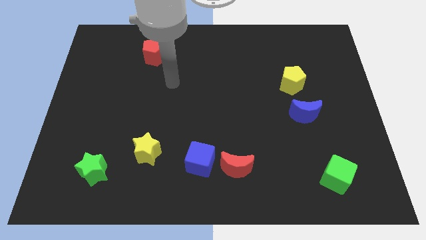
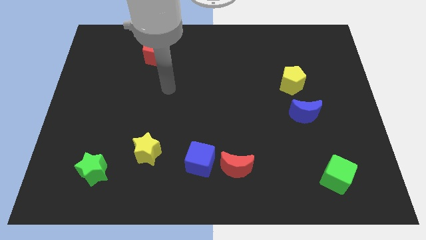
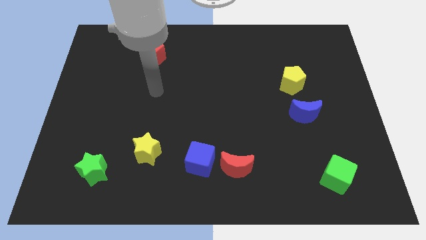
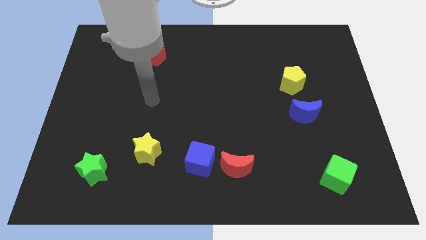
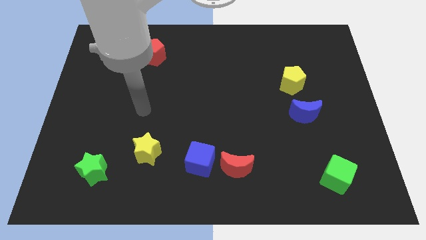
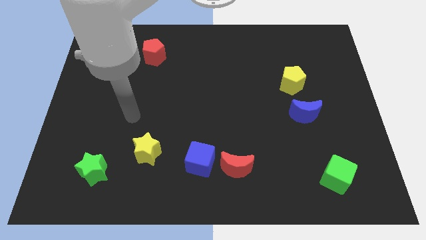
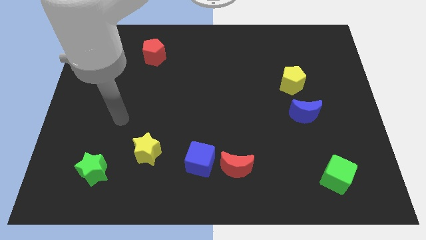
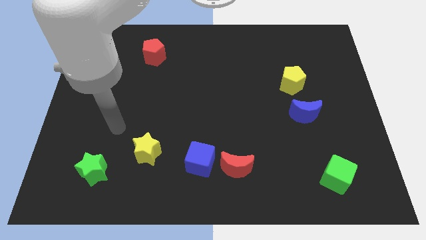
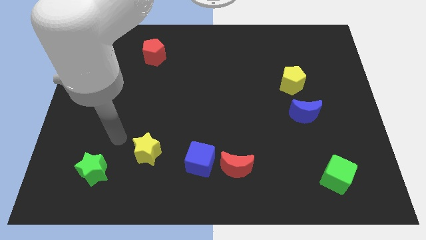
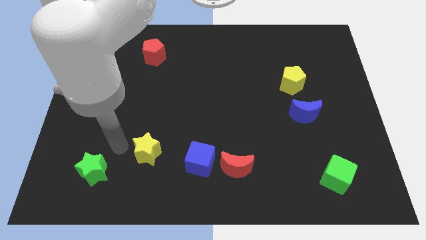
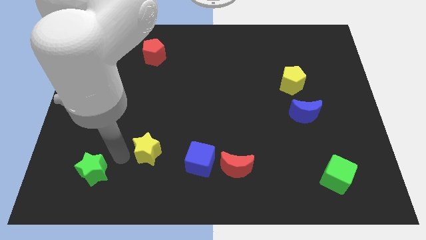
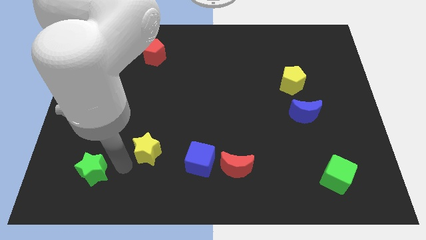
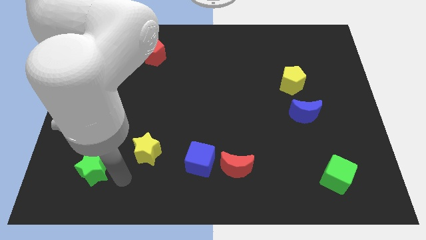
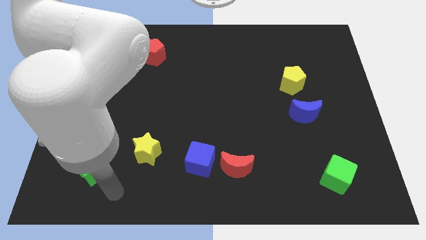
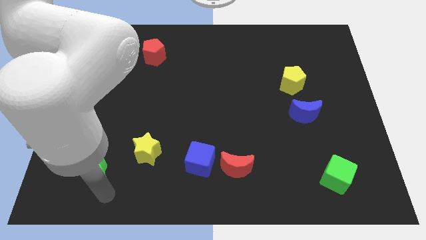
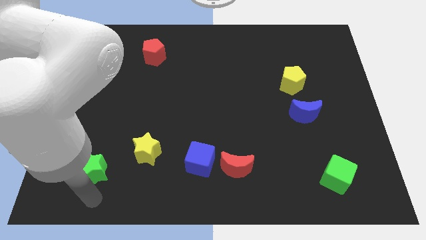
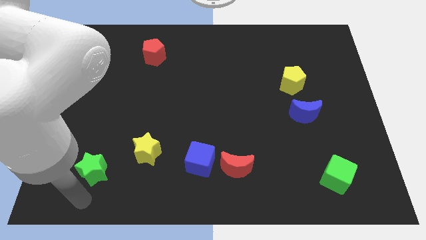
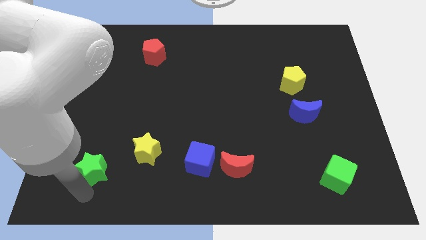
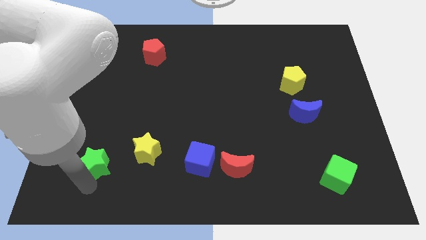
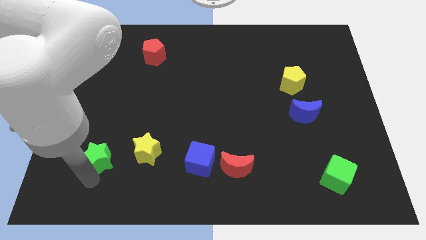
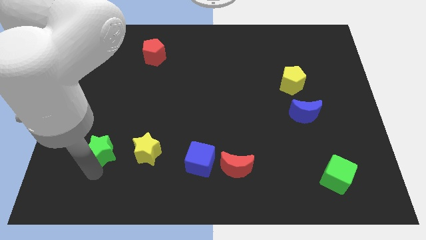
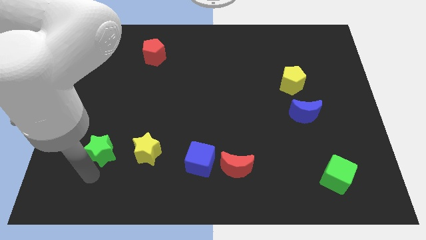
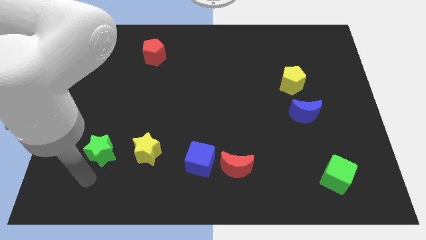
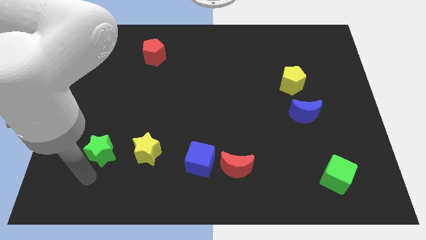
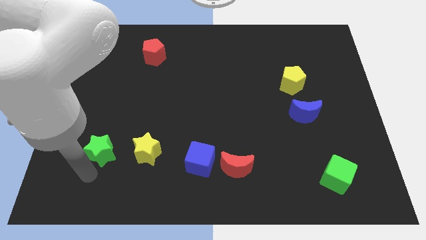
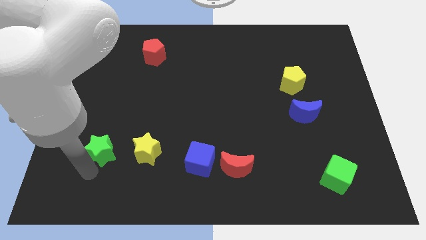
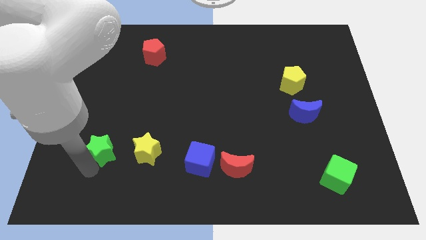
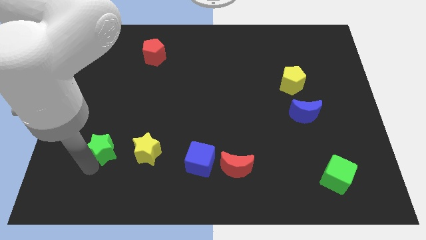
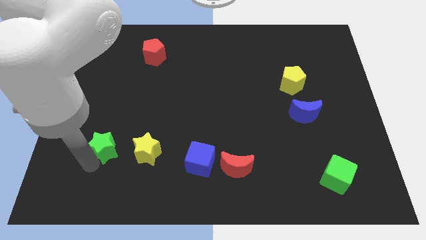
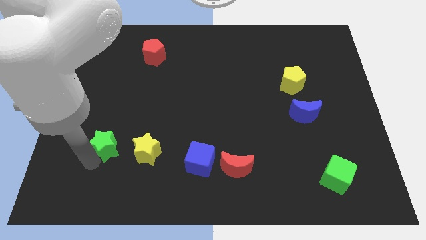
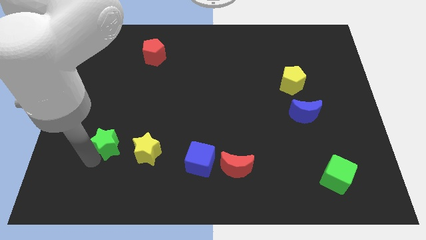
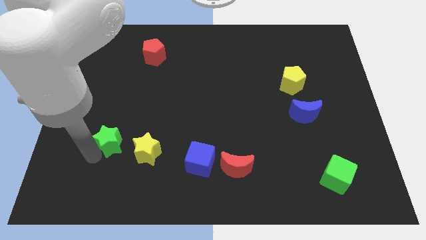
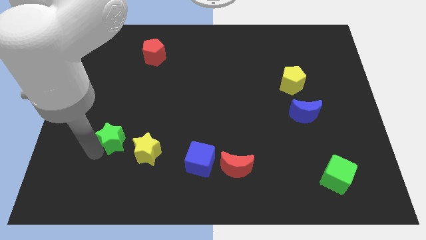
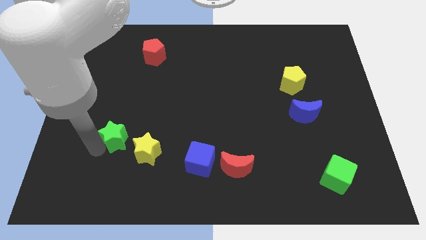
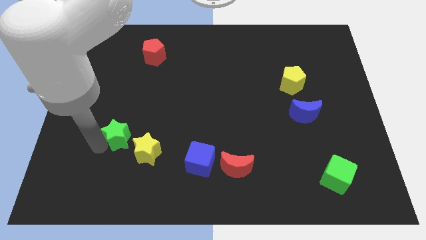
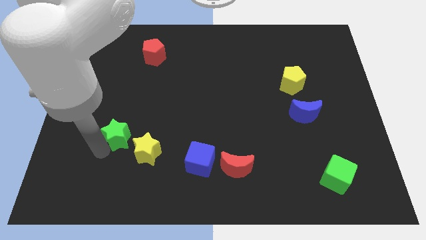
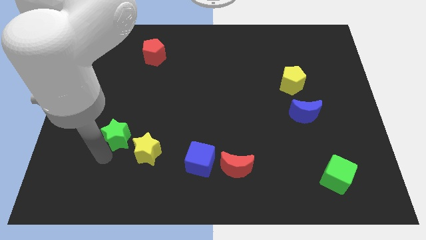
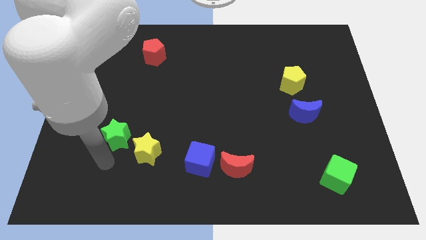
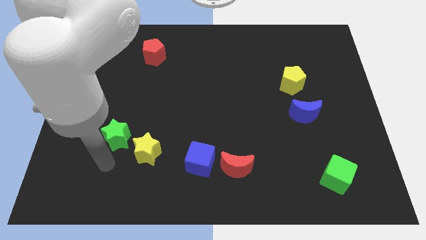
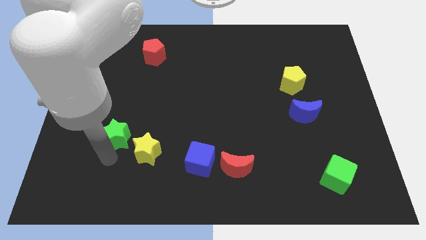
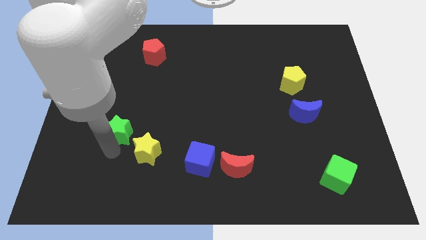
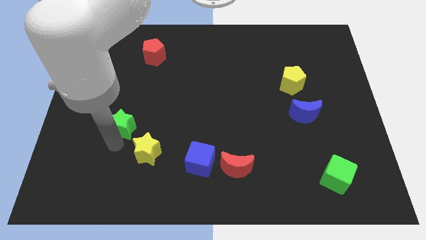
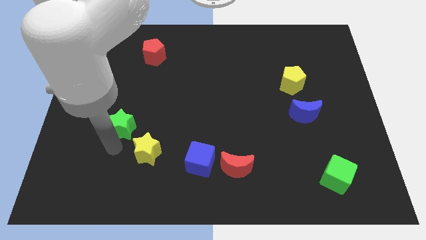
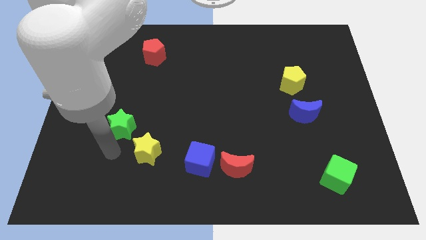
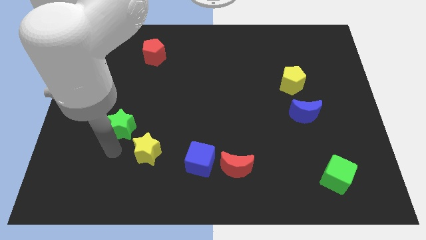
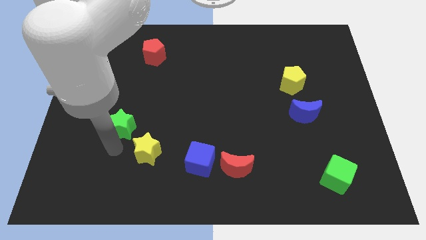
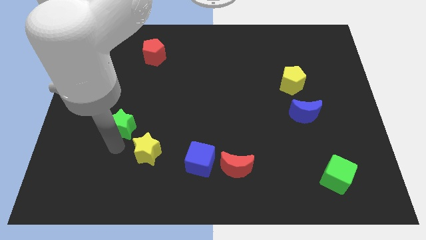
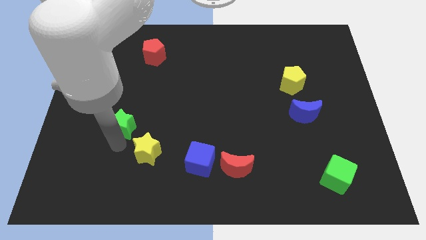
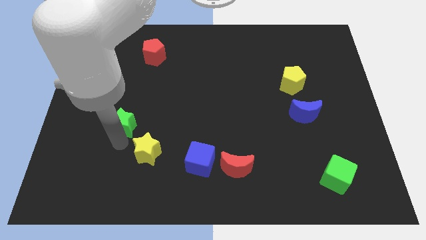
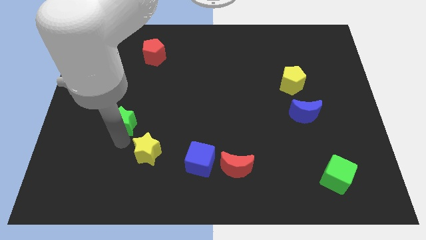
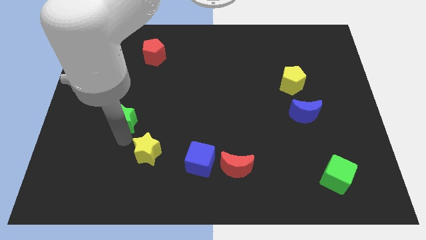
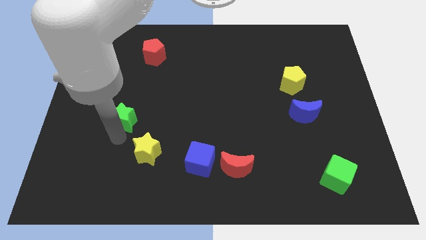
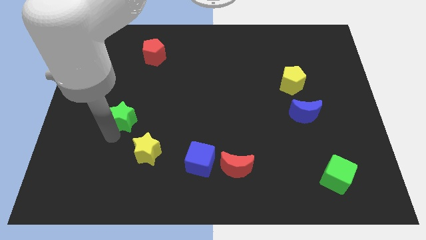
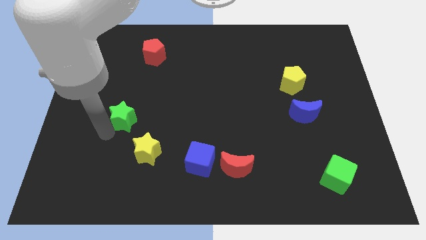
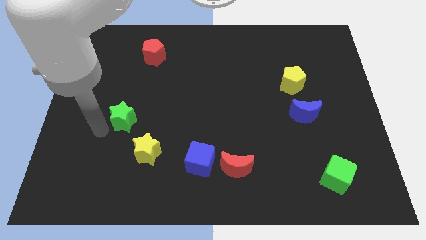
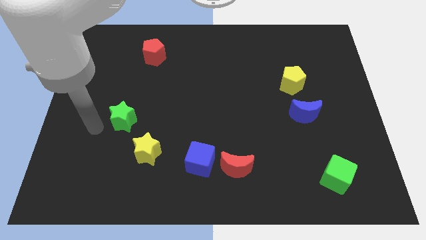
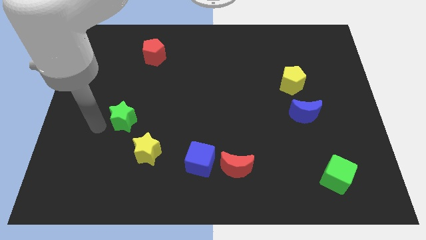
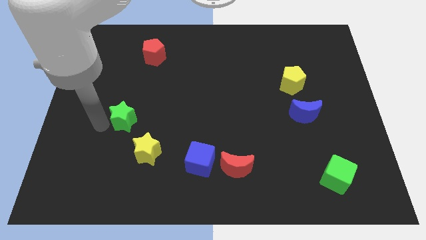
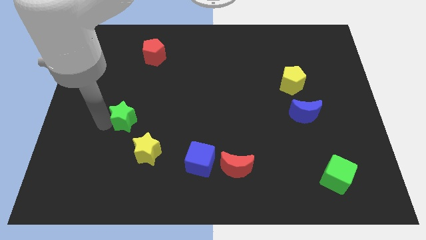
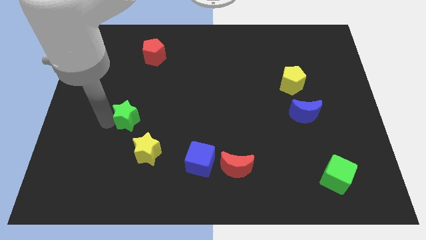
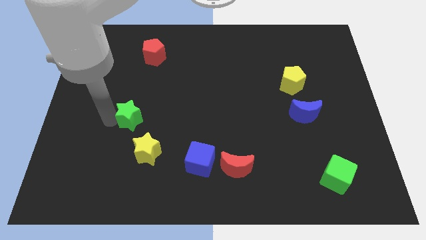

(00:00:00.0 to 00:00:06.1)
push the green star to the top side of the yellow star

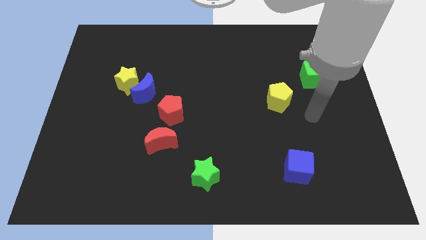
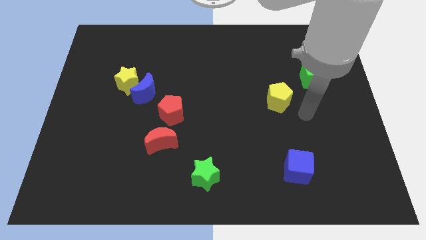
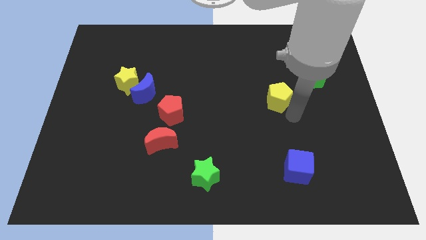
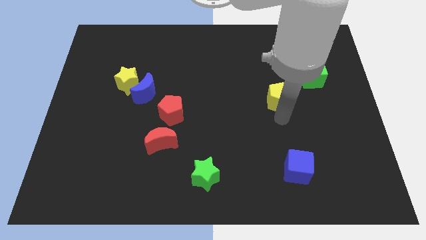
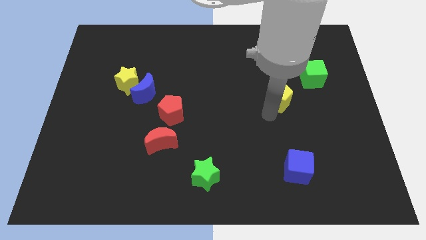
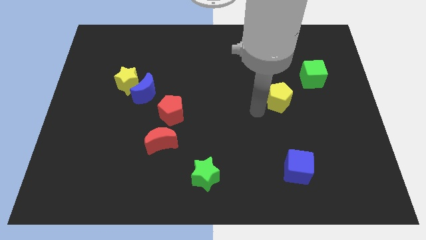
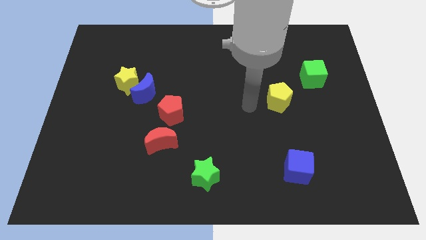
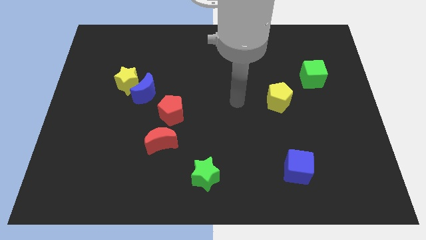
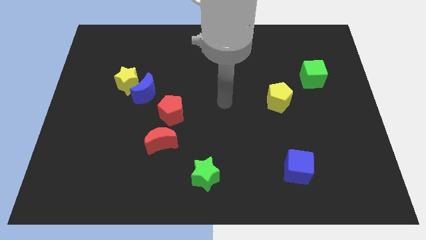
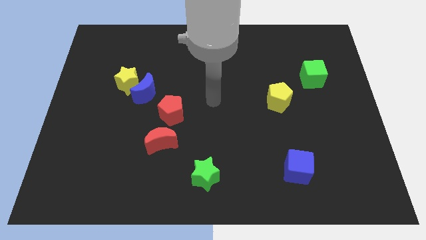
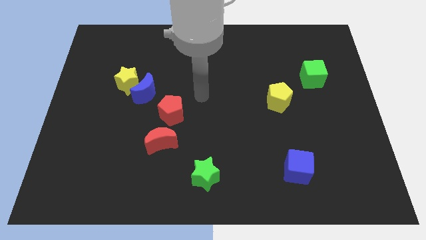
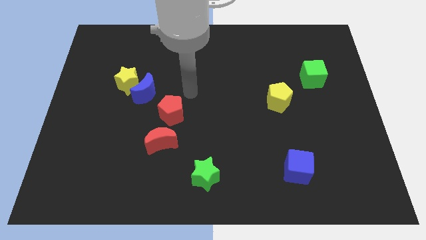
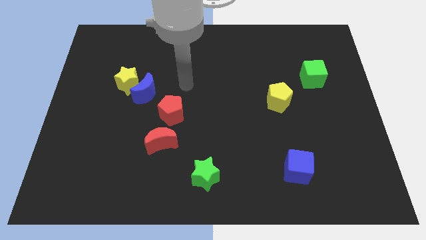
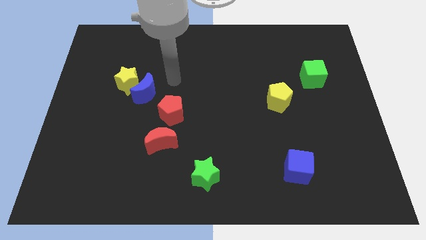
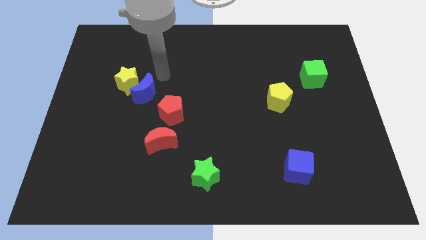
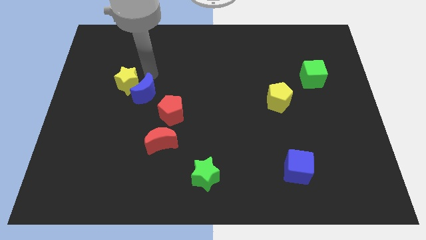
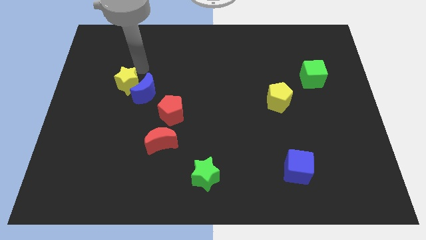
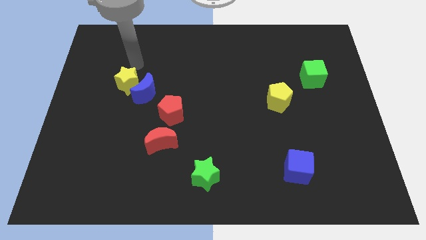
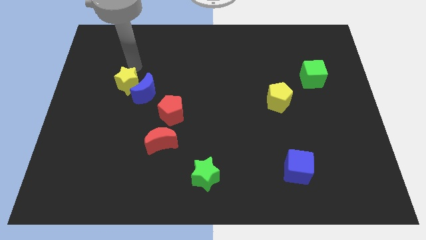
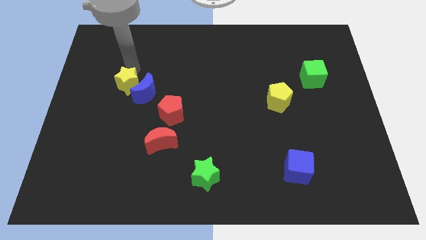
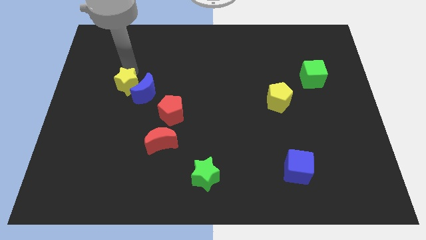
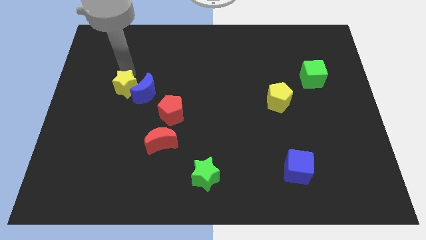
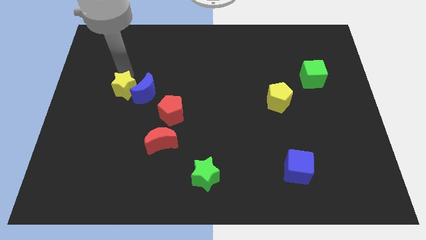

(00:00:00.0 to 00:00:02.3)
slide the yellow star to the bottom left side of the blue moon
